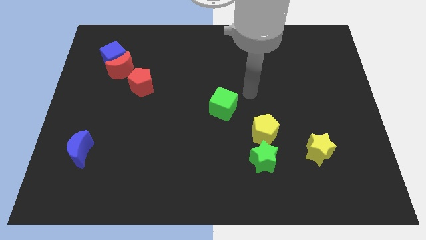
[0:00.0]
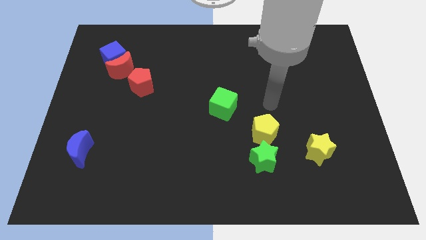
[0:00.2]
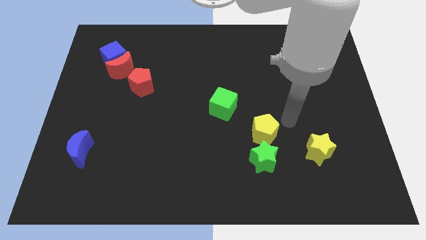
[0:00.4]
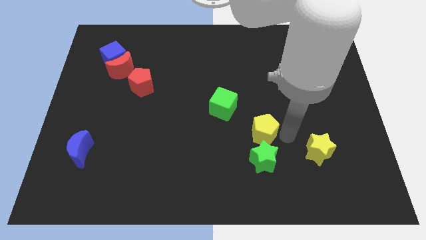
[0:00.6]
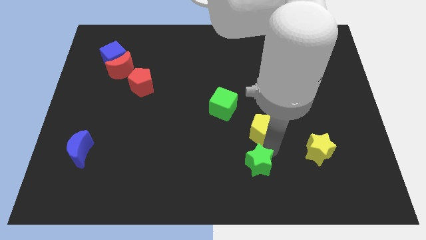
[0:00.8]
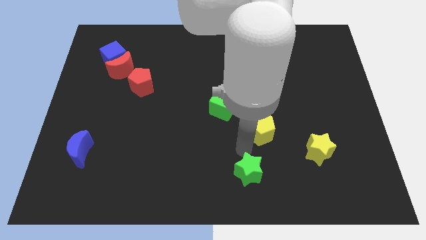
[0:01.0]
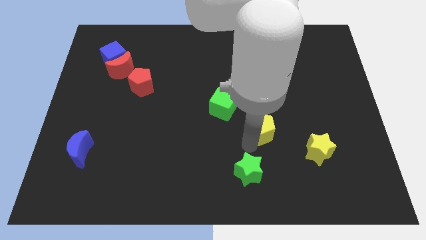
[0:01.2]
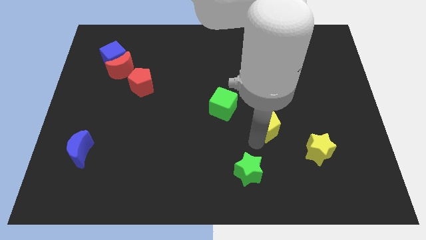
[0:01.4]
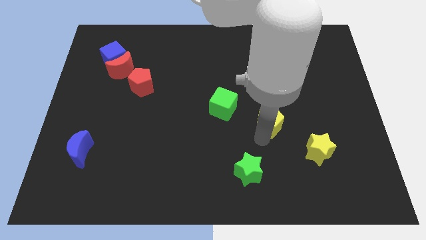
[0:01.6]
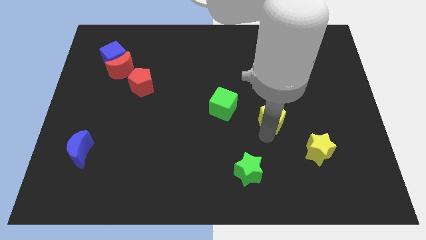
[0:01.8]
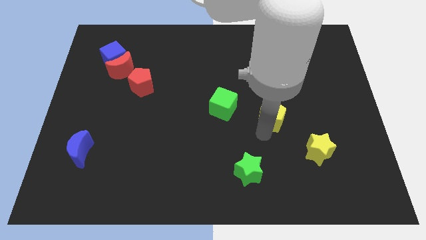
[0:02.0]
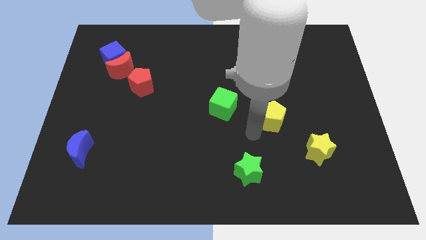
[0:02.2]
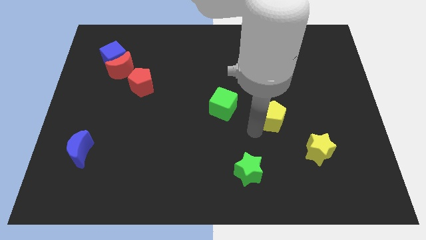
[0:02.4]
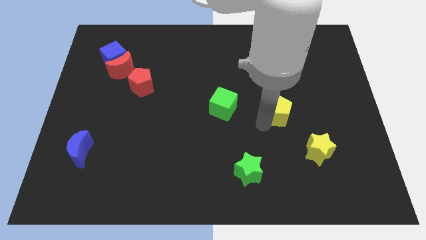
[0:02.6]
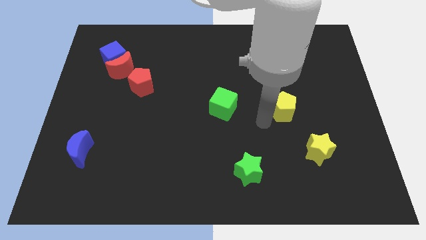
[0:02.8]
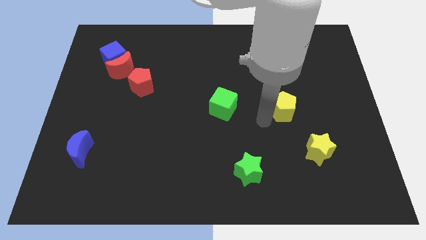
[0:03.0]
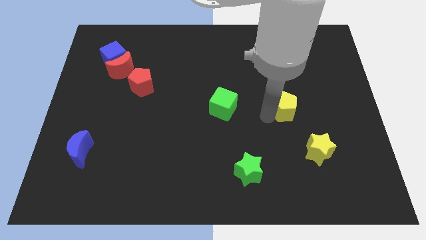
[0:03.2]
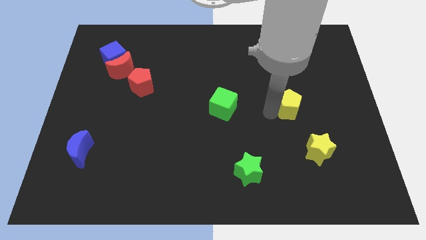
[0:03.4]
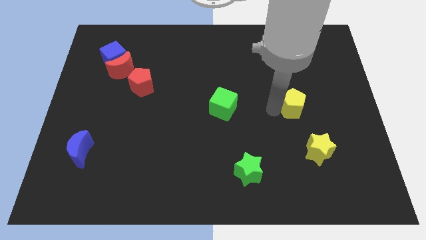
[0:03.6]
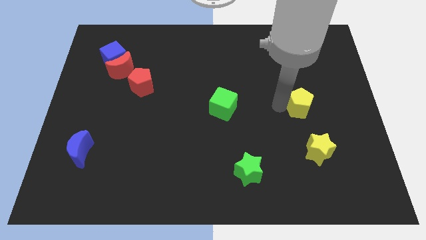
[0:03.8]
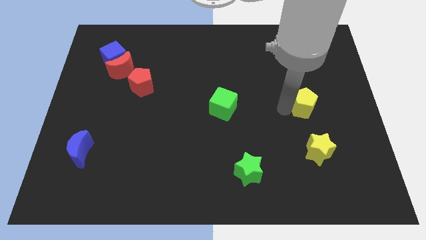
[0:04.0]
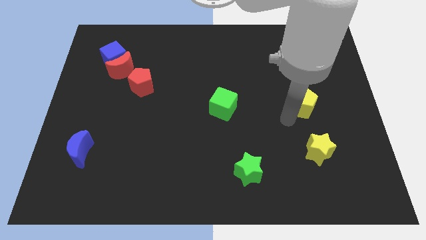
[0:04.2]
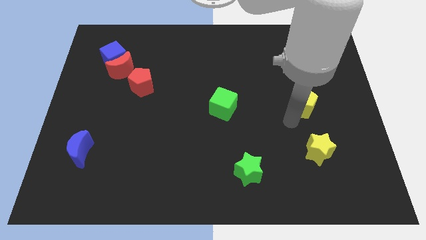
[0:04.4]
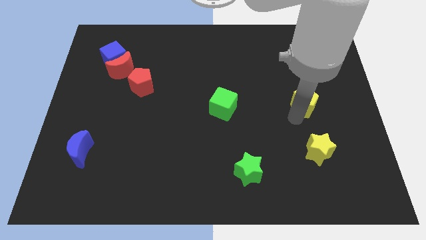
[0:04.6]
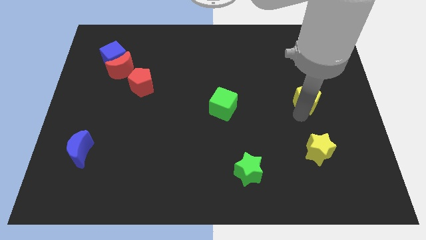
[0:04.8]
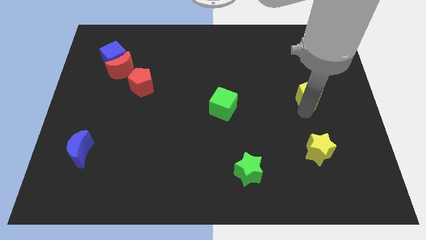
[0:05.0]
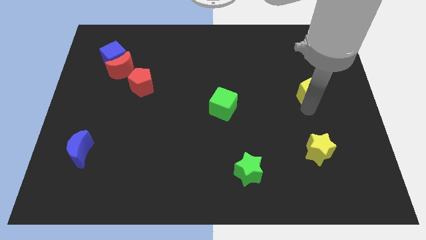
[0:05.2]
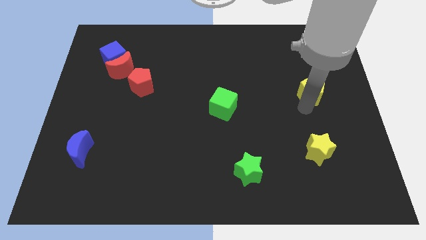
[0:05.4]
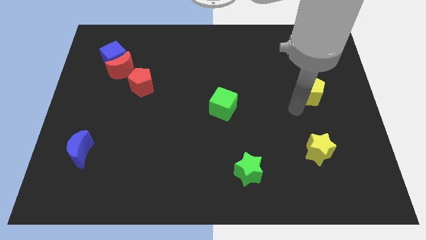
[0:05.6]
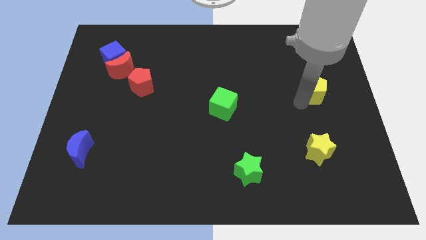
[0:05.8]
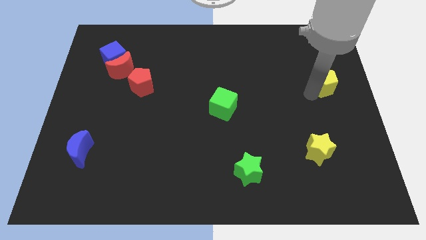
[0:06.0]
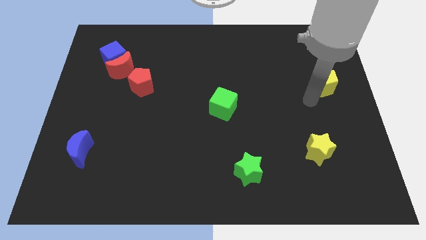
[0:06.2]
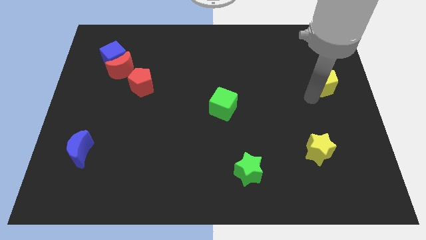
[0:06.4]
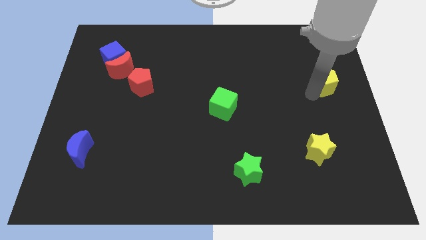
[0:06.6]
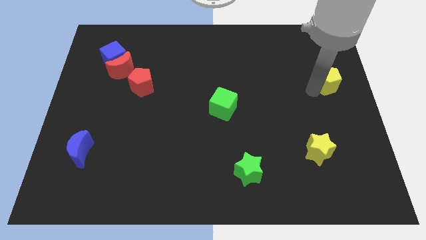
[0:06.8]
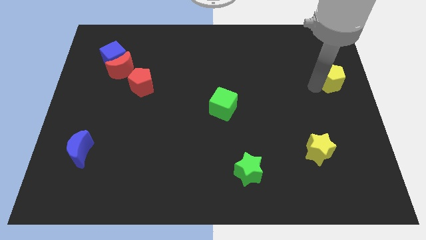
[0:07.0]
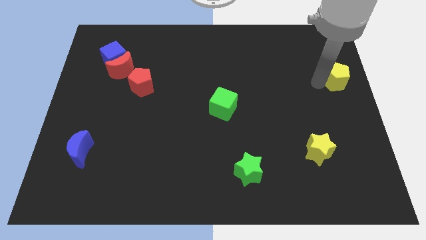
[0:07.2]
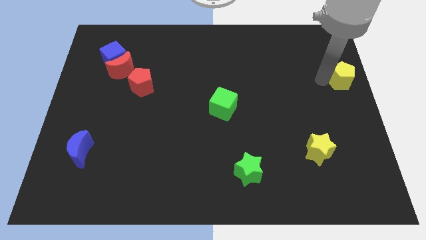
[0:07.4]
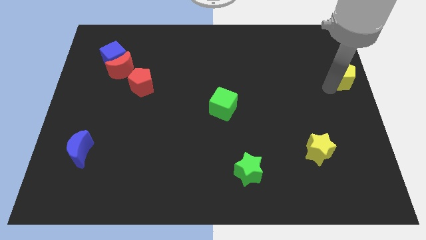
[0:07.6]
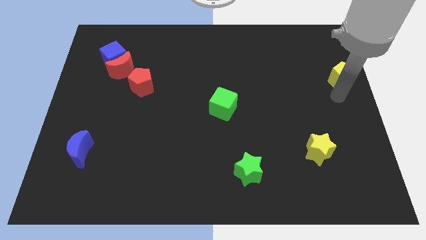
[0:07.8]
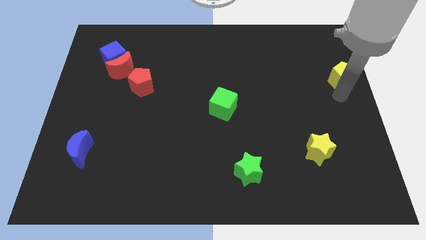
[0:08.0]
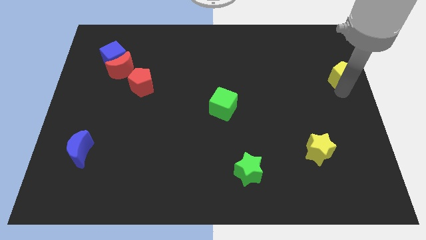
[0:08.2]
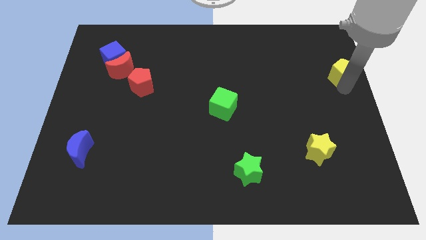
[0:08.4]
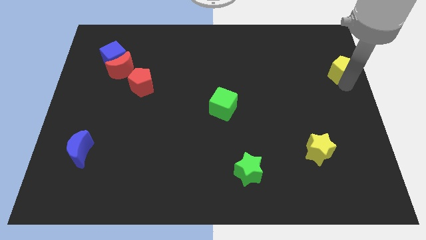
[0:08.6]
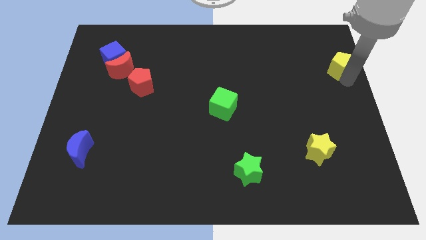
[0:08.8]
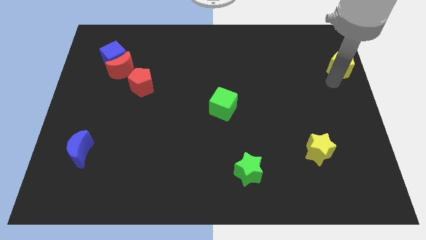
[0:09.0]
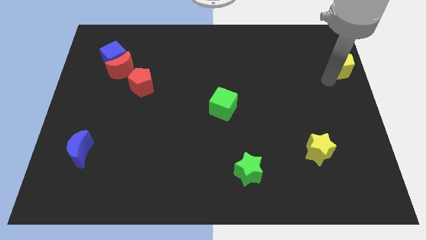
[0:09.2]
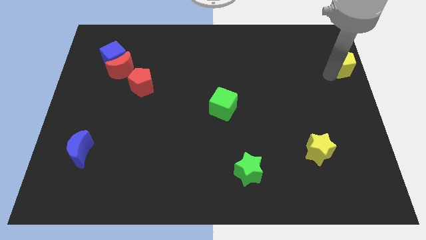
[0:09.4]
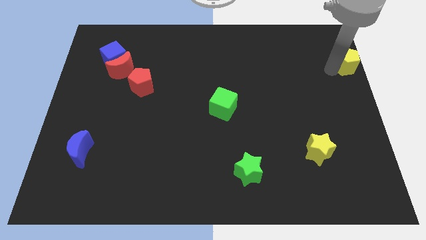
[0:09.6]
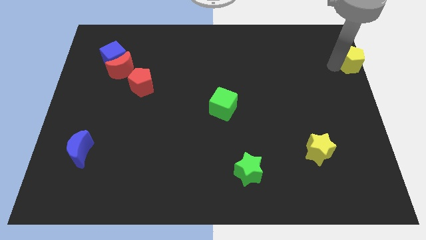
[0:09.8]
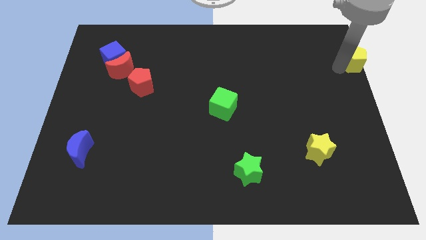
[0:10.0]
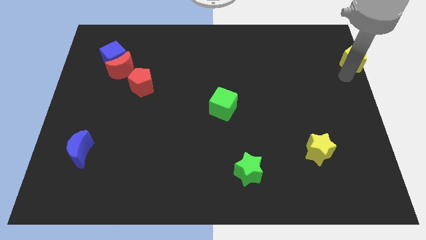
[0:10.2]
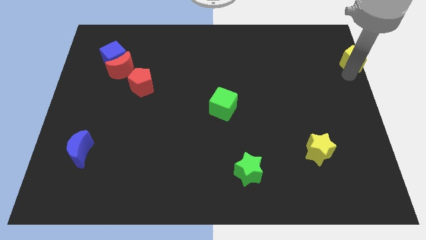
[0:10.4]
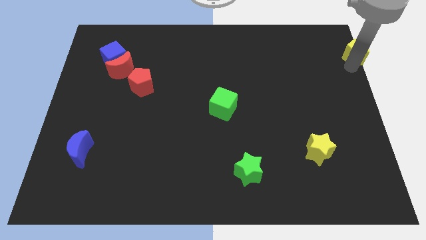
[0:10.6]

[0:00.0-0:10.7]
move the yellow pentagon to the top right corner

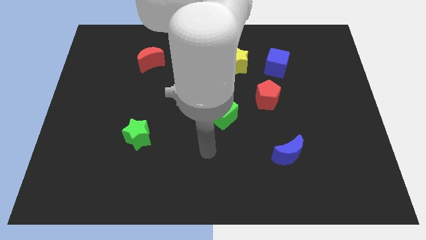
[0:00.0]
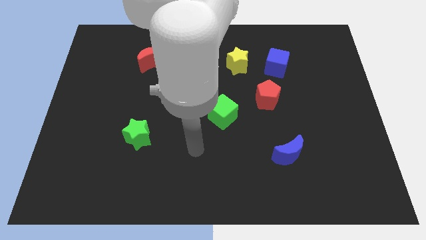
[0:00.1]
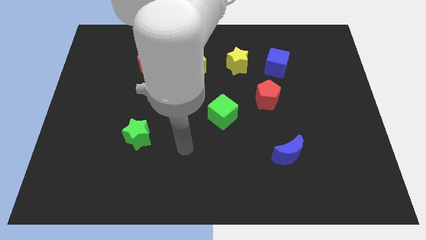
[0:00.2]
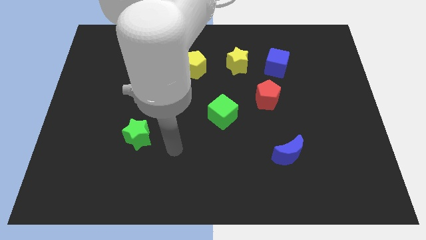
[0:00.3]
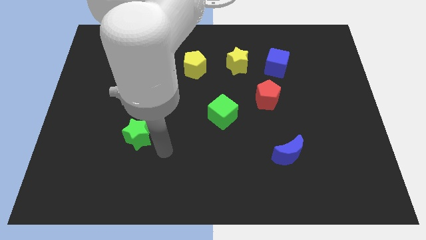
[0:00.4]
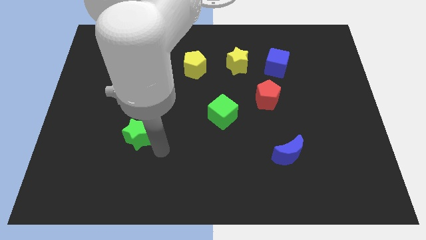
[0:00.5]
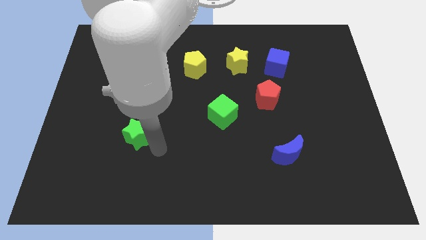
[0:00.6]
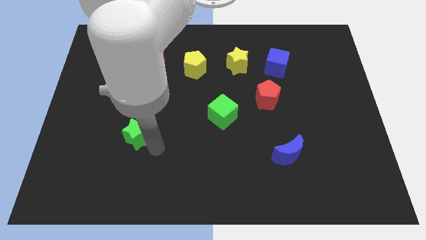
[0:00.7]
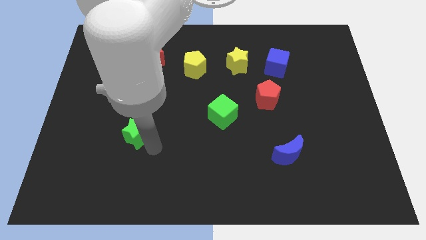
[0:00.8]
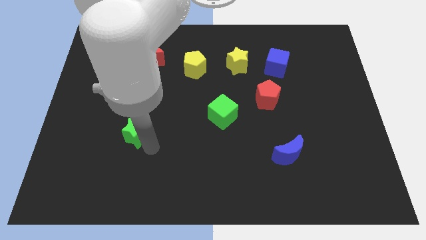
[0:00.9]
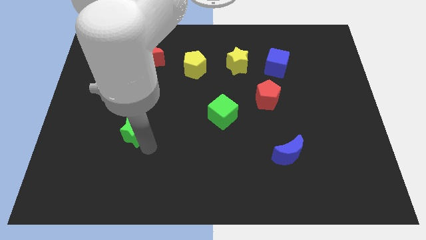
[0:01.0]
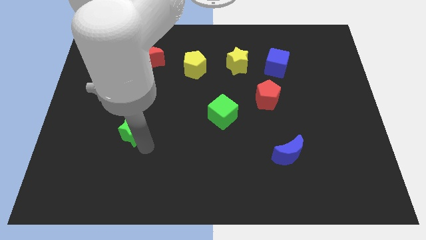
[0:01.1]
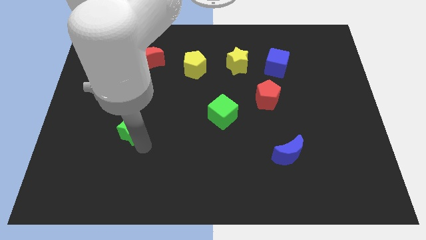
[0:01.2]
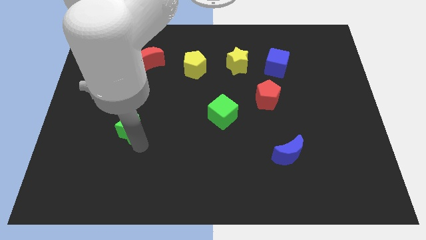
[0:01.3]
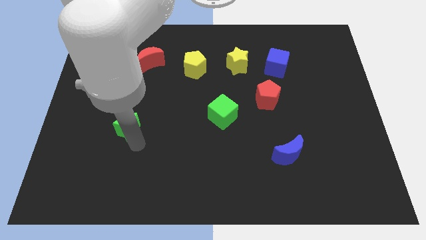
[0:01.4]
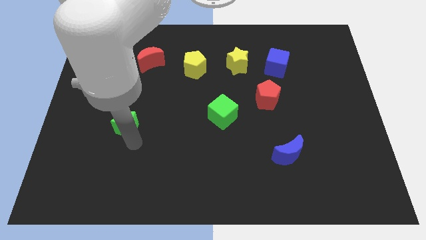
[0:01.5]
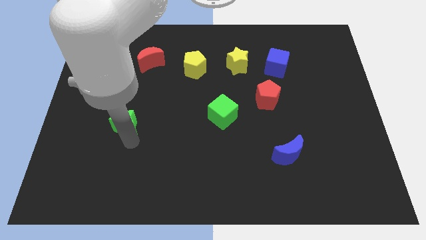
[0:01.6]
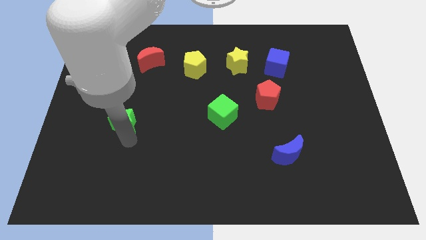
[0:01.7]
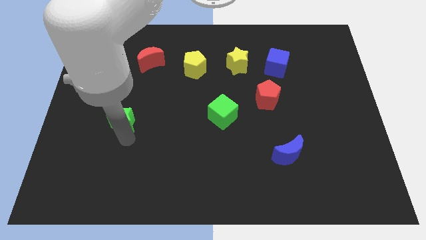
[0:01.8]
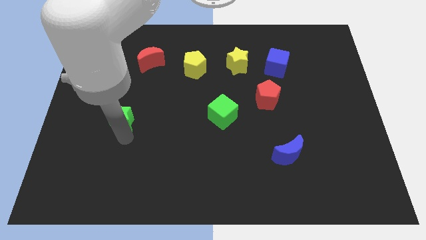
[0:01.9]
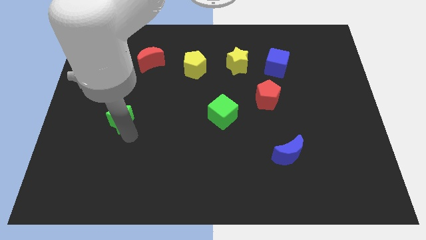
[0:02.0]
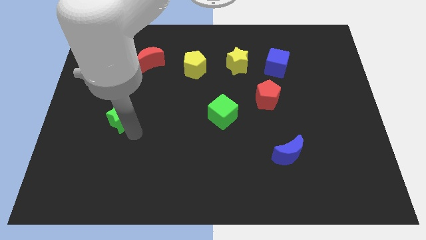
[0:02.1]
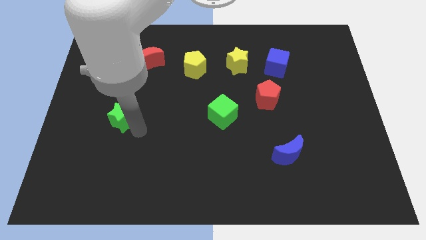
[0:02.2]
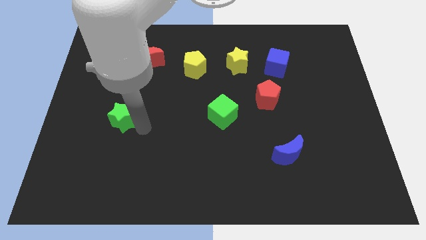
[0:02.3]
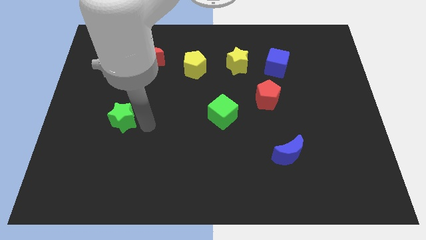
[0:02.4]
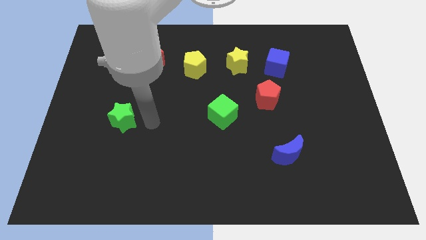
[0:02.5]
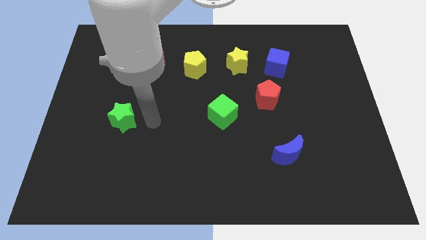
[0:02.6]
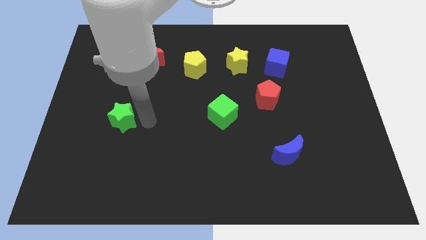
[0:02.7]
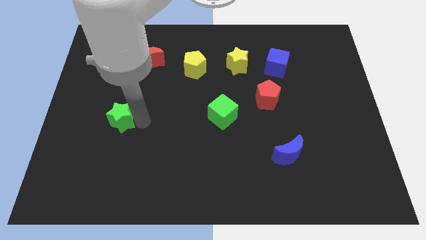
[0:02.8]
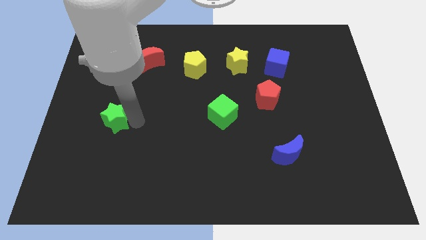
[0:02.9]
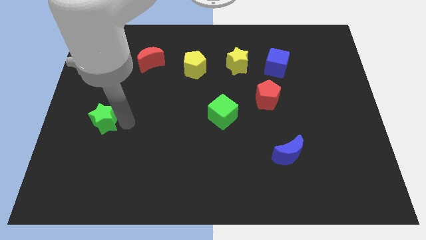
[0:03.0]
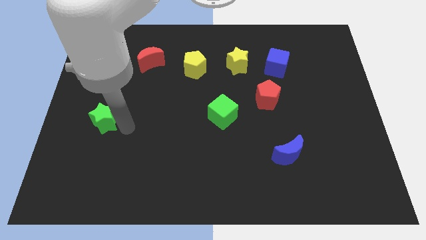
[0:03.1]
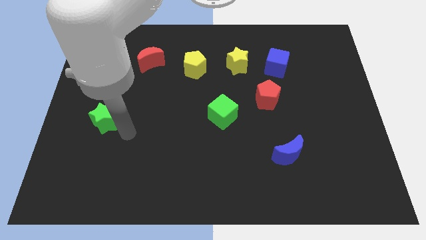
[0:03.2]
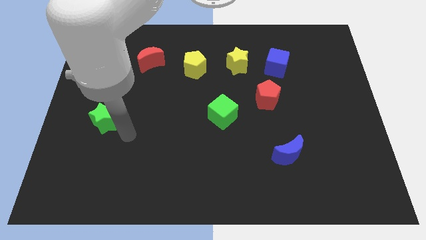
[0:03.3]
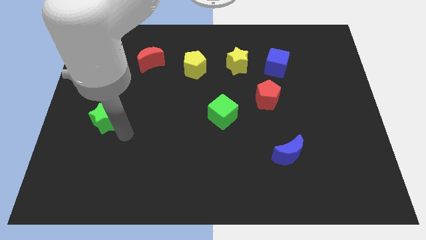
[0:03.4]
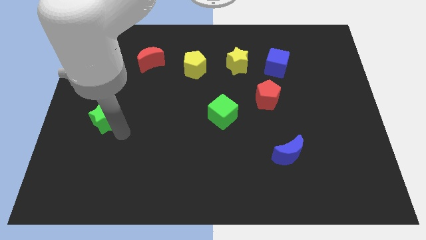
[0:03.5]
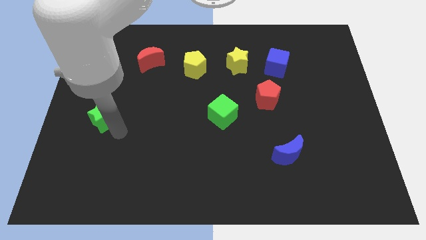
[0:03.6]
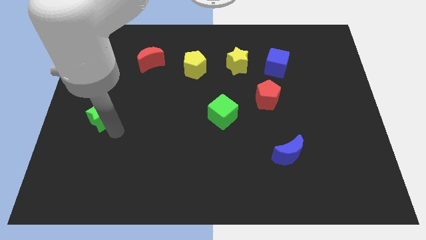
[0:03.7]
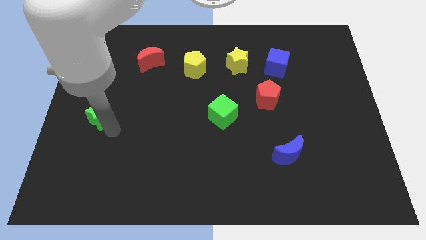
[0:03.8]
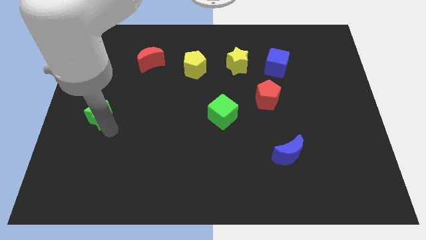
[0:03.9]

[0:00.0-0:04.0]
move the green star to the center left
